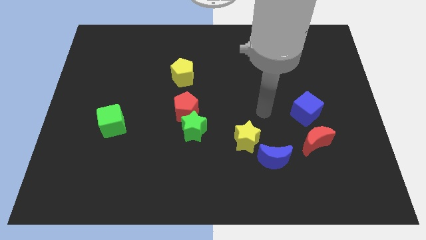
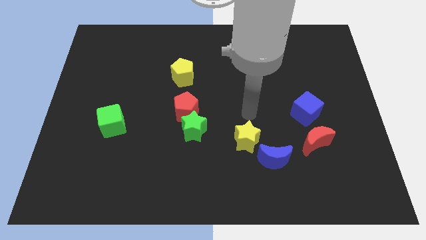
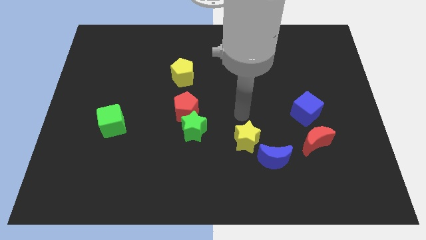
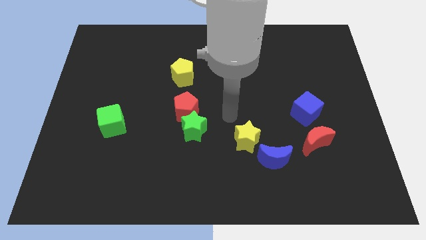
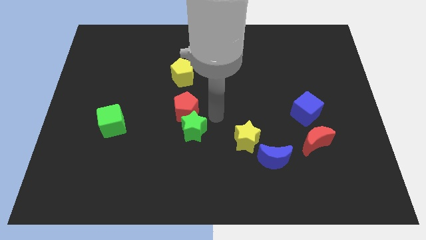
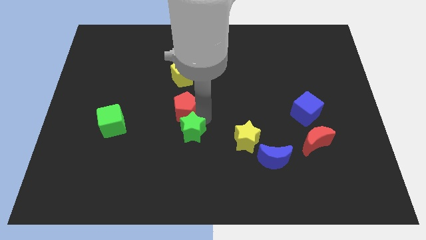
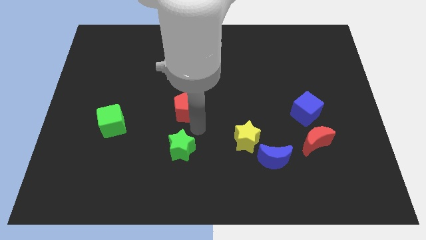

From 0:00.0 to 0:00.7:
separate the red pentagon from the green star

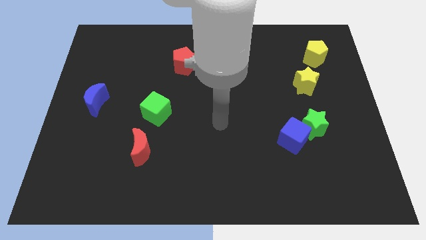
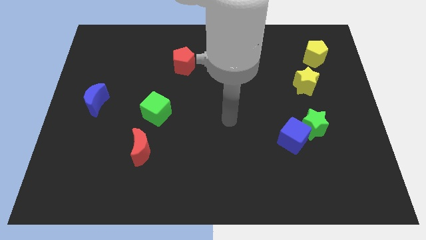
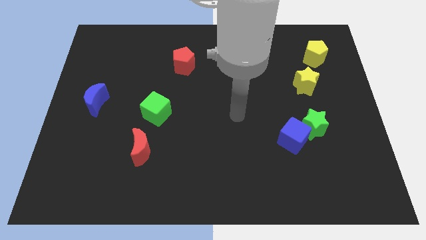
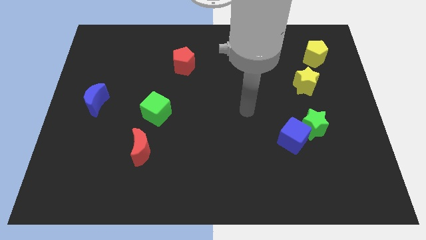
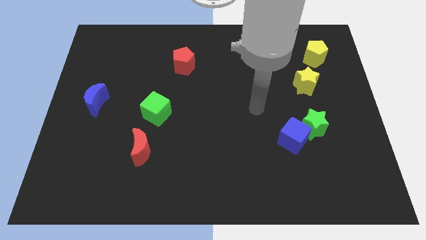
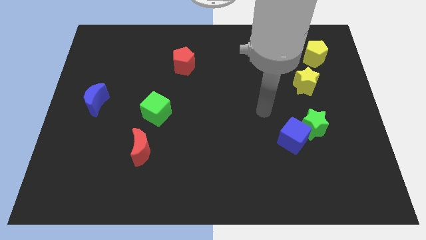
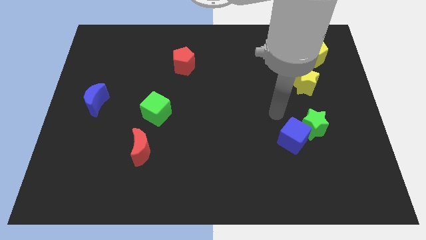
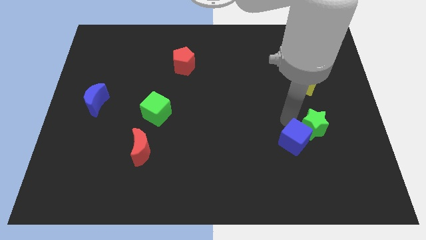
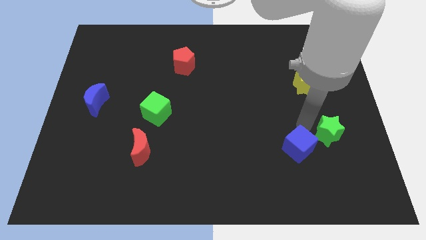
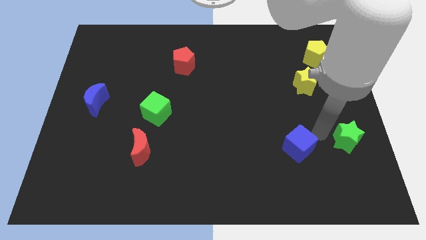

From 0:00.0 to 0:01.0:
pull the blue cube apart from the green star

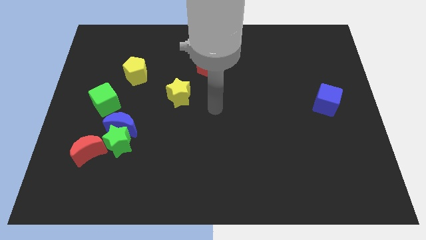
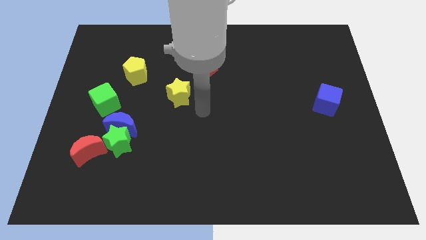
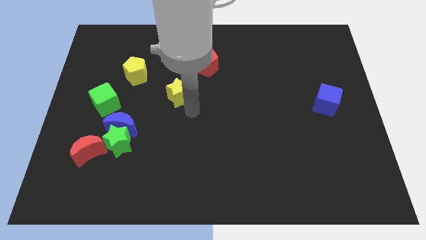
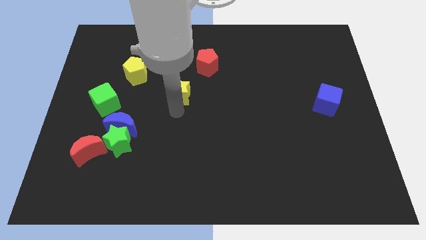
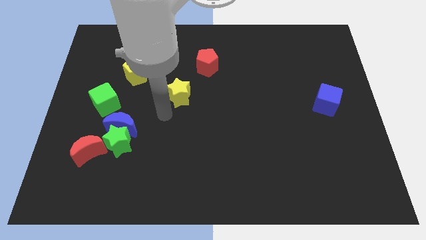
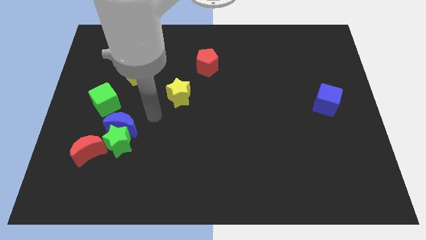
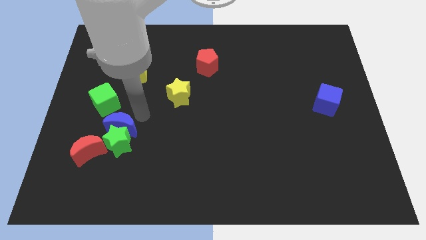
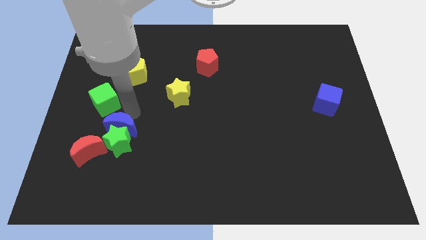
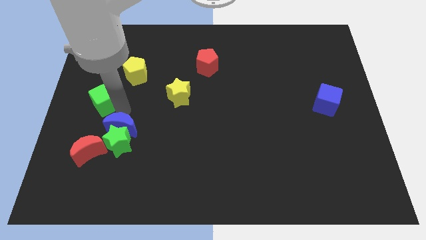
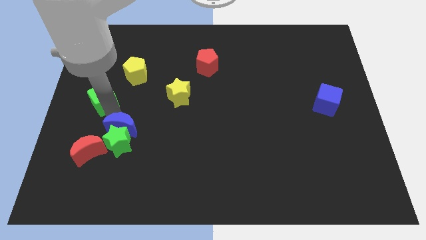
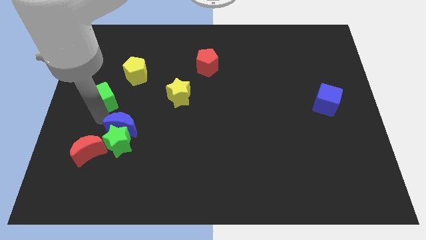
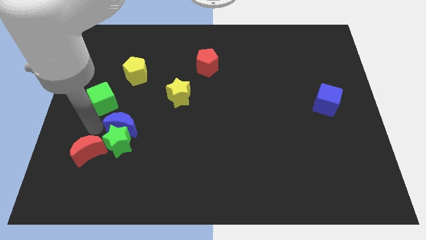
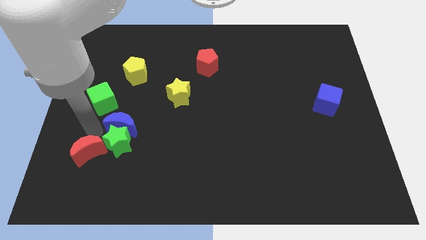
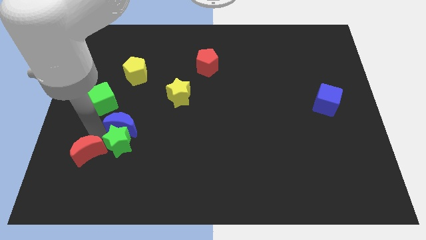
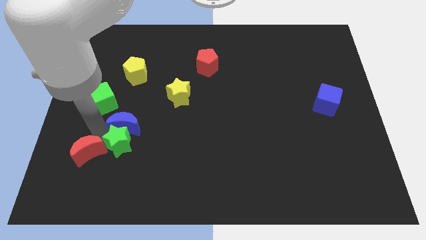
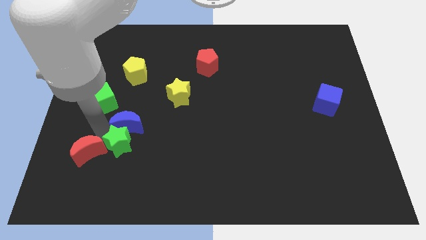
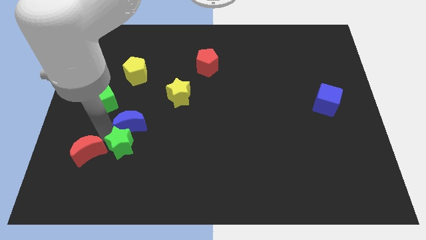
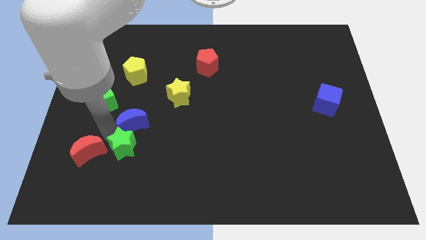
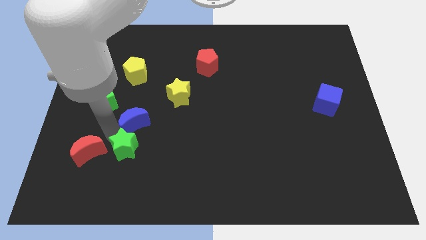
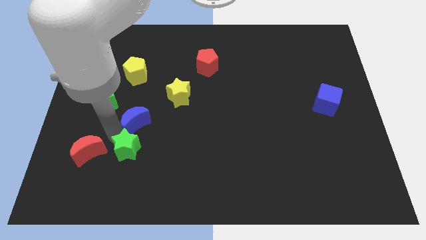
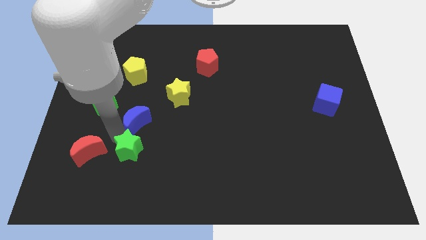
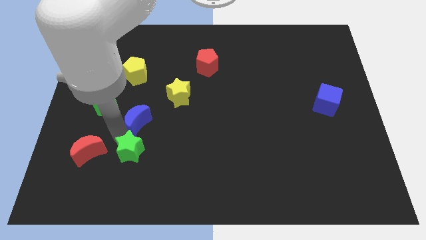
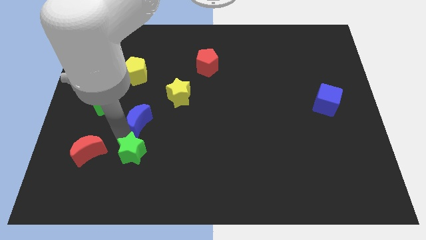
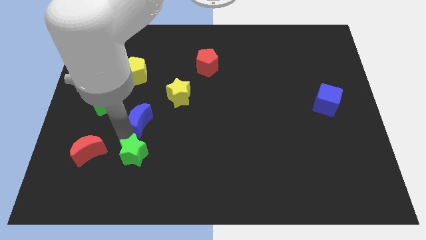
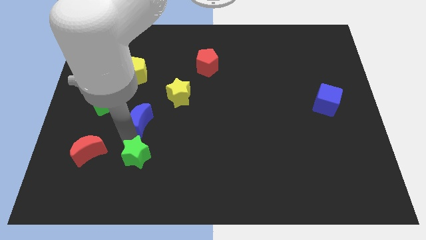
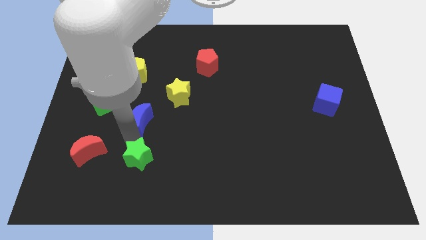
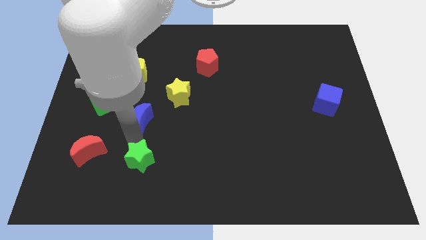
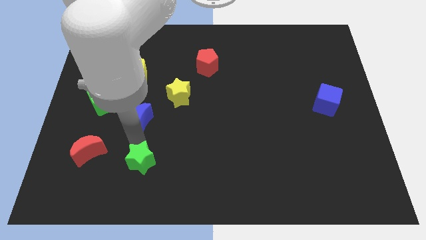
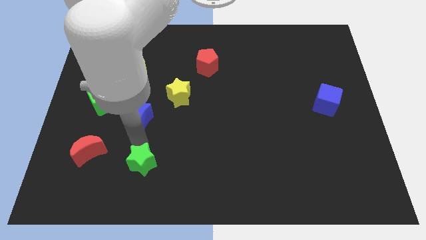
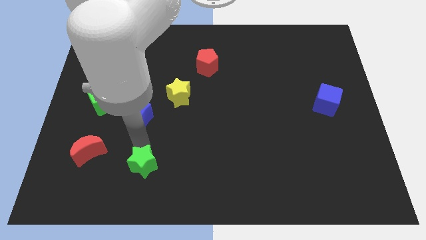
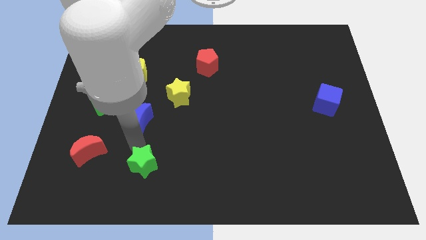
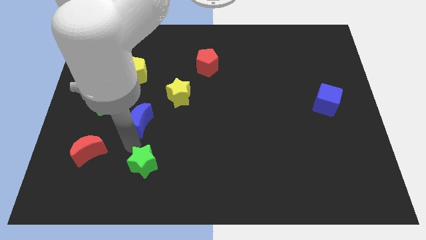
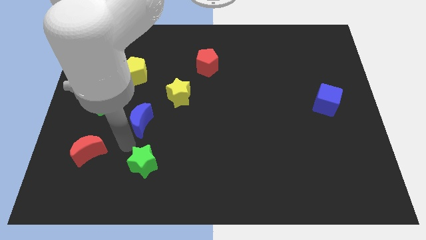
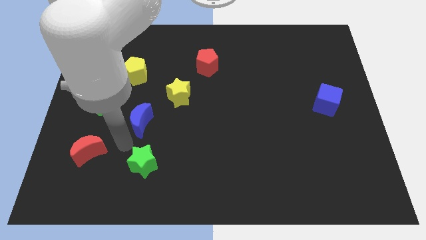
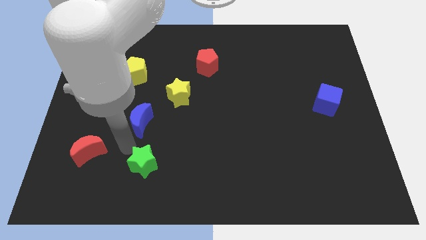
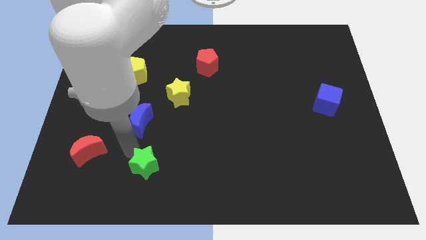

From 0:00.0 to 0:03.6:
separate the green star from the blue moon and red moon

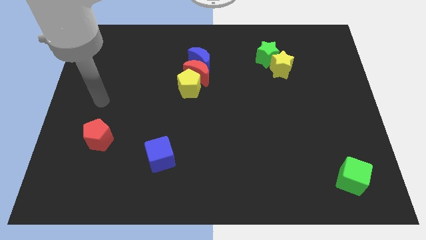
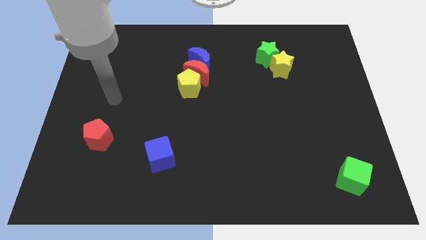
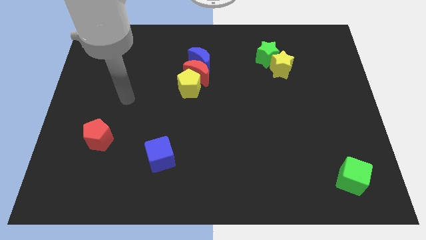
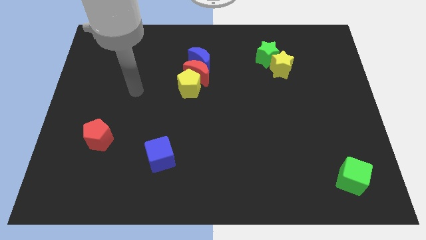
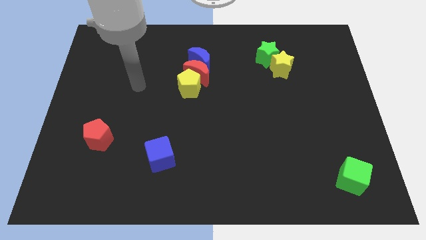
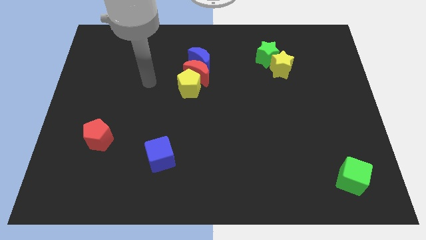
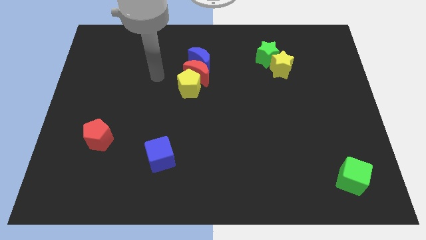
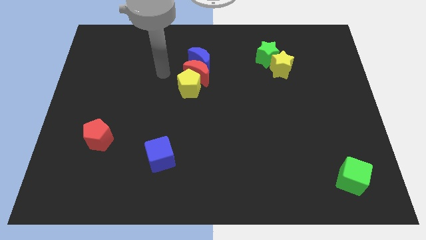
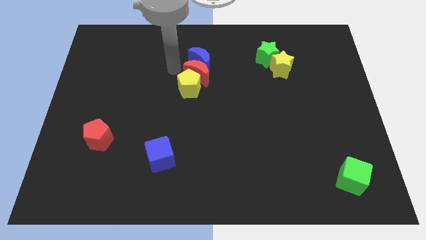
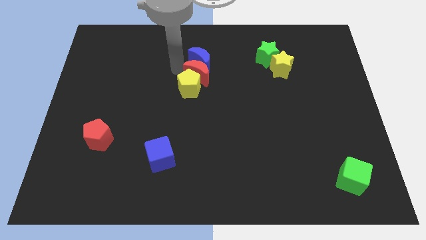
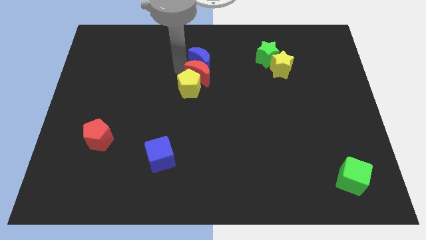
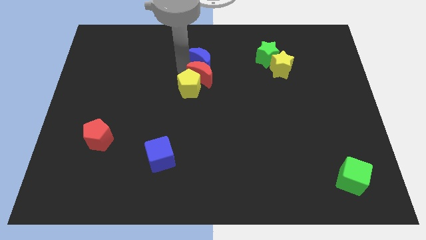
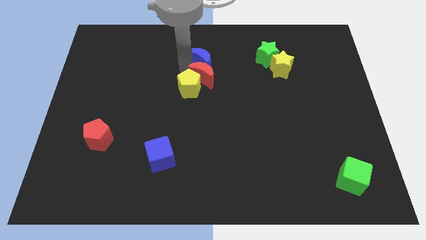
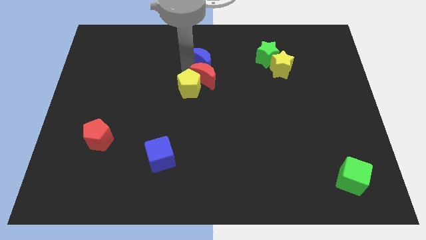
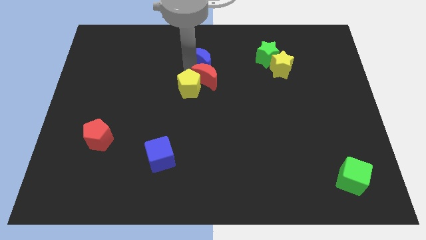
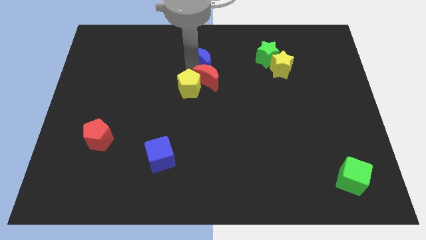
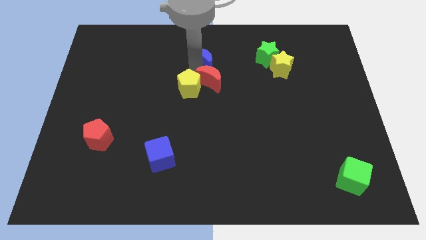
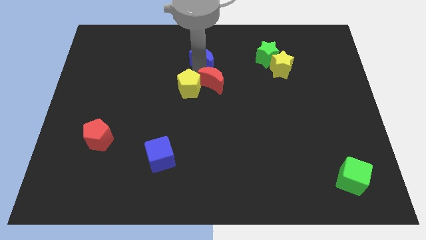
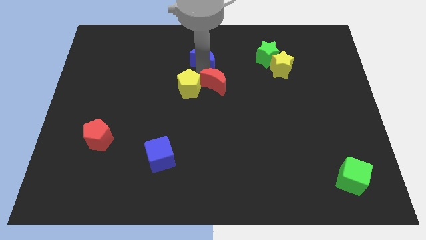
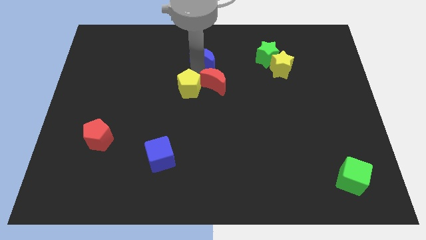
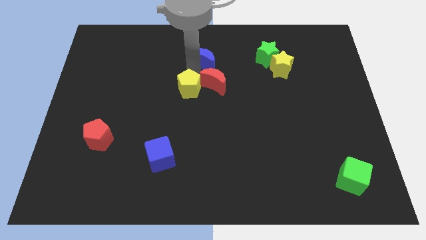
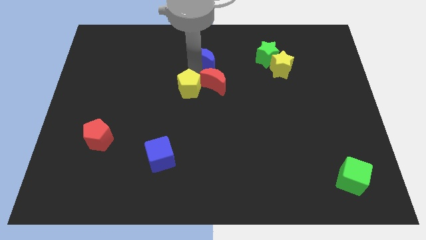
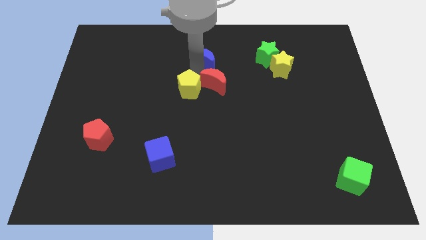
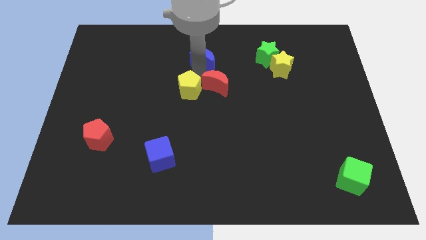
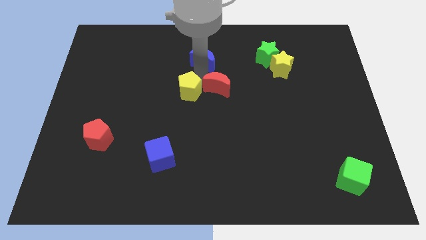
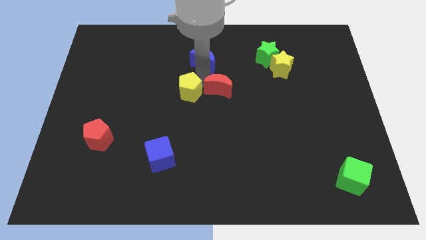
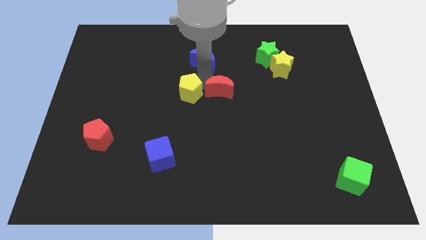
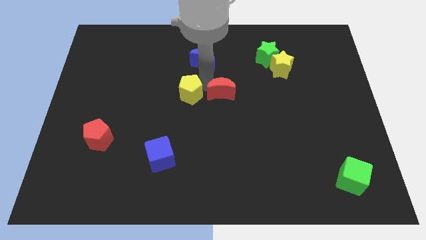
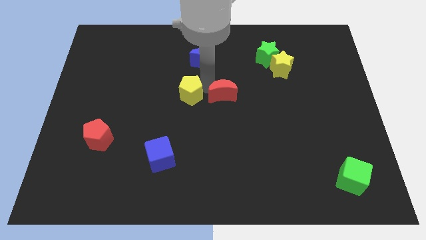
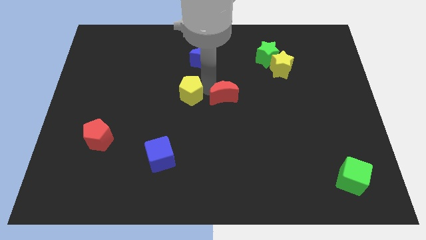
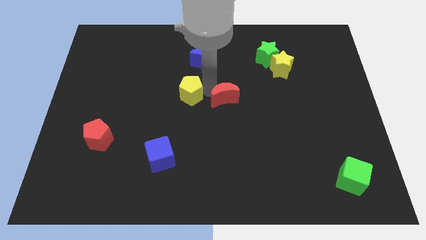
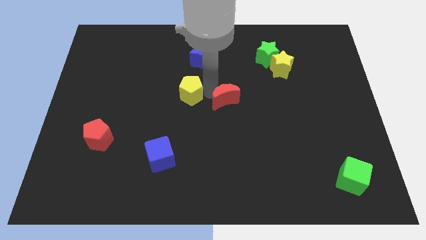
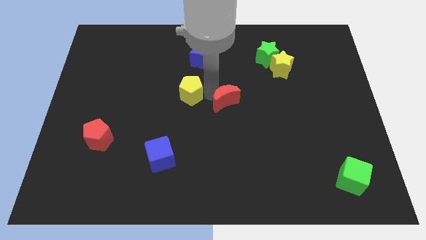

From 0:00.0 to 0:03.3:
pull the red moon apart from the blue moon and yellow pentagon

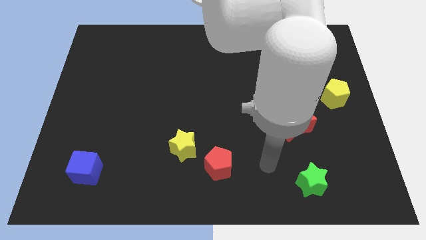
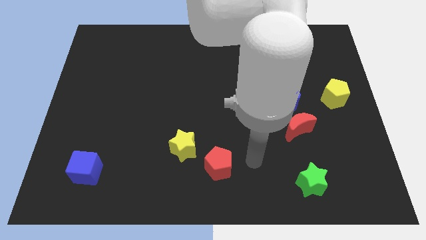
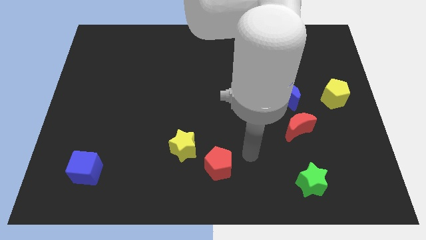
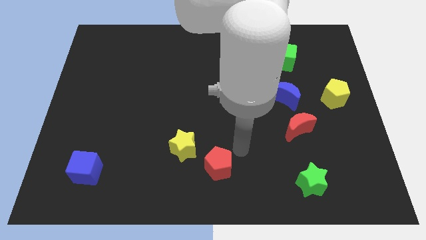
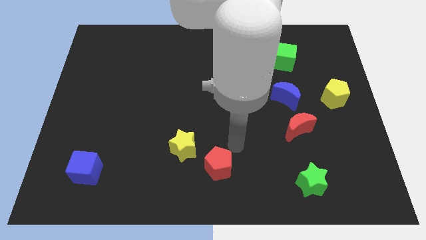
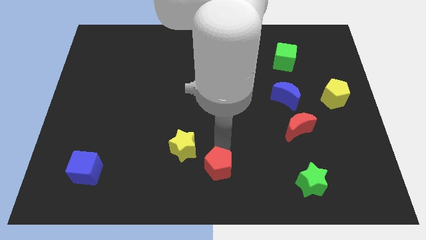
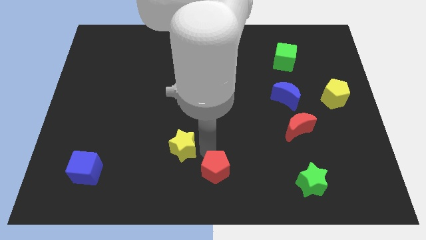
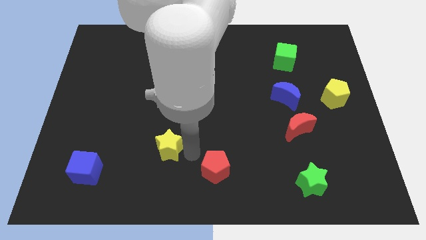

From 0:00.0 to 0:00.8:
separate the red pentagon from the yellow star
